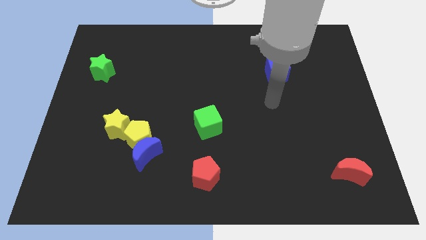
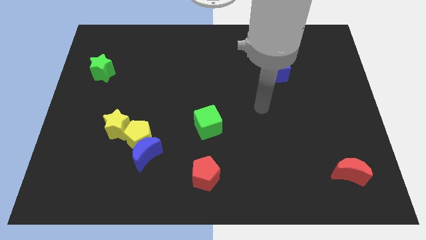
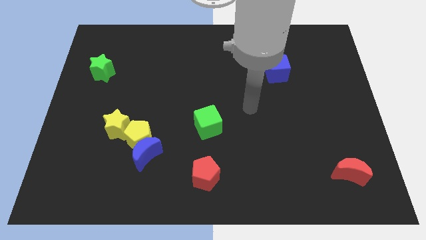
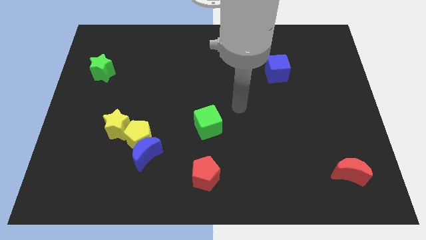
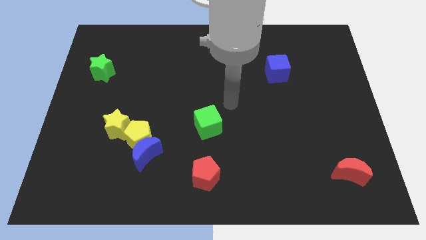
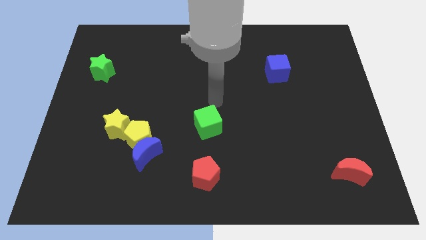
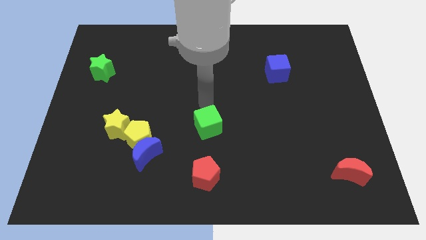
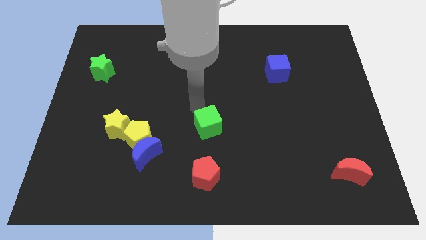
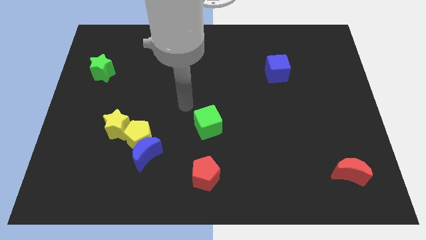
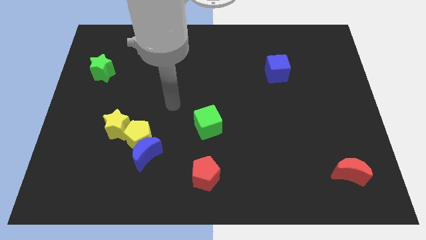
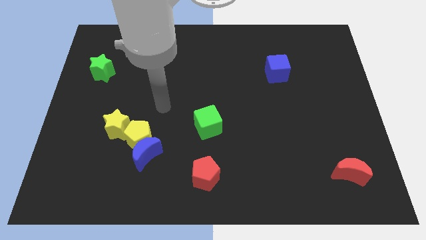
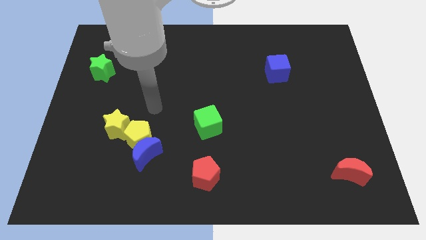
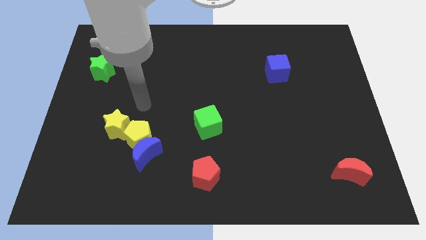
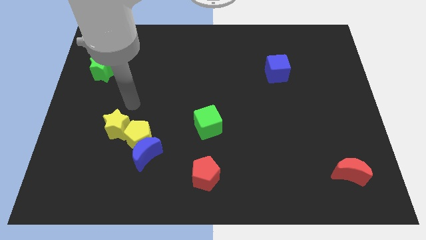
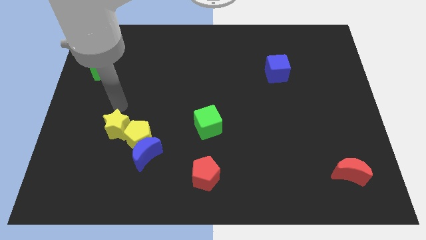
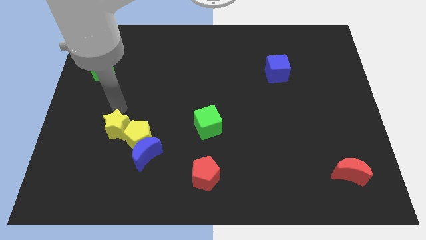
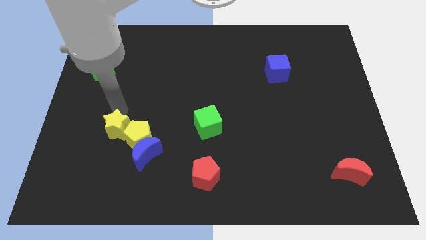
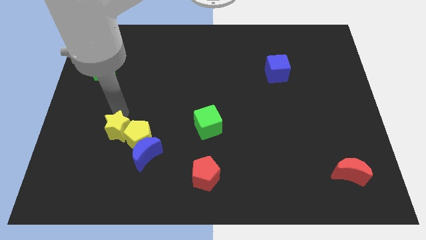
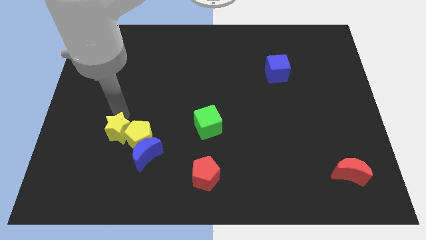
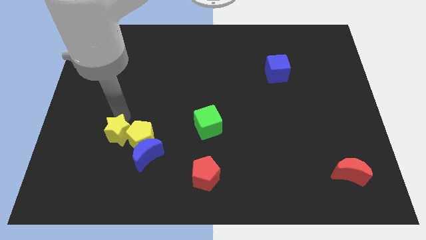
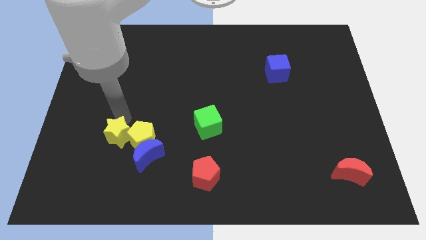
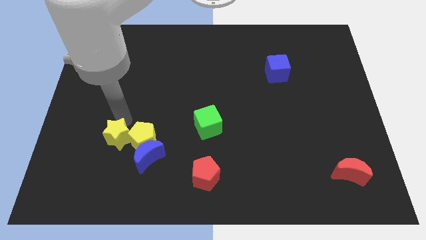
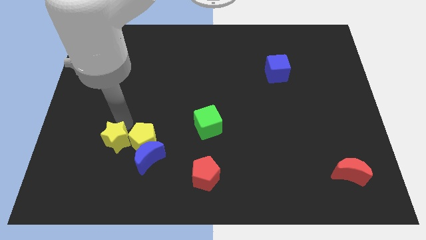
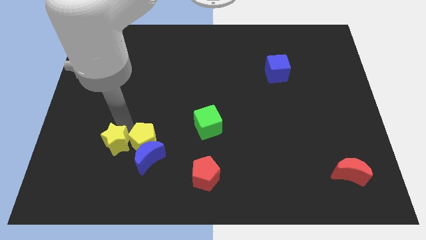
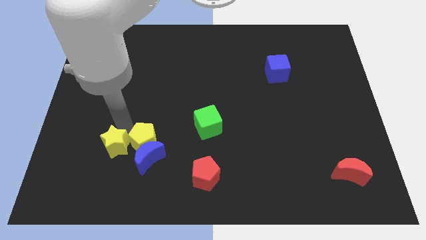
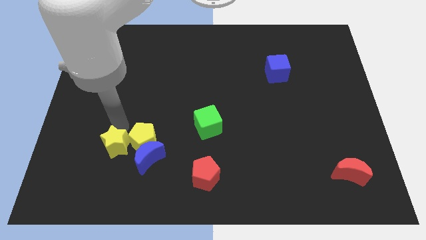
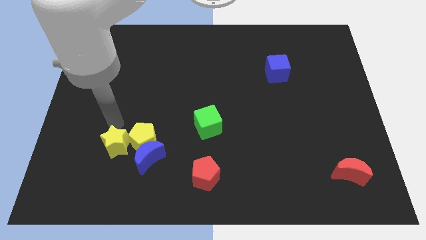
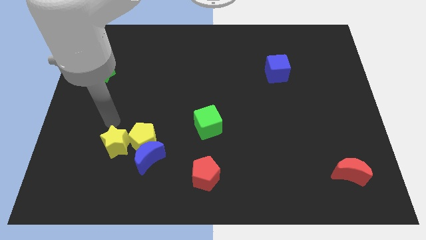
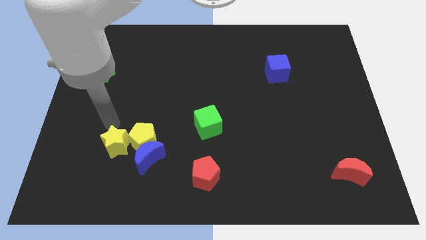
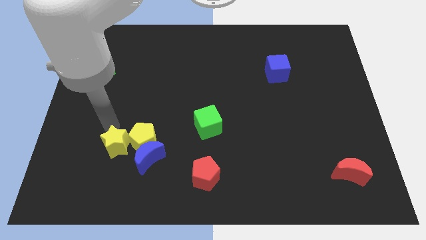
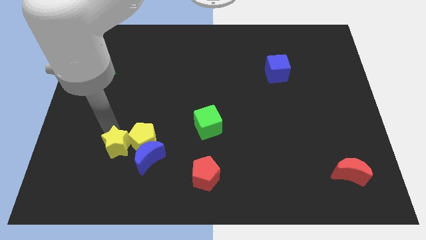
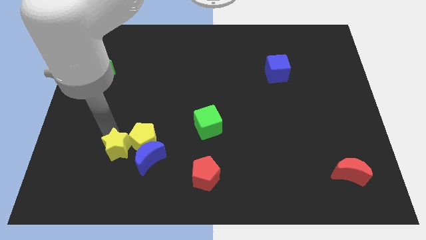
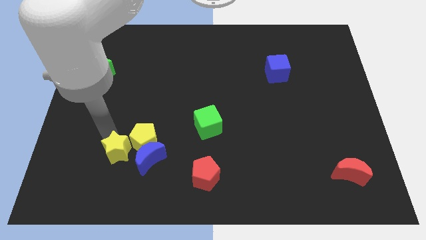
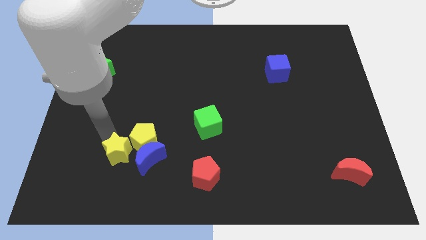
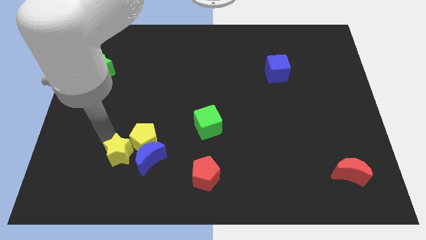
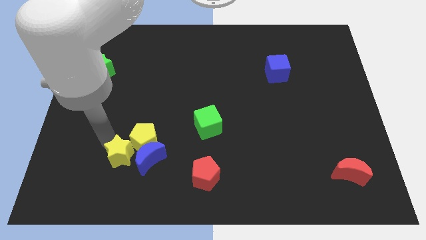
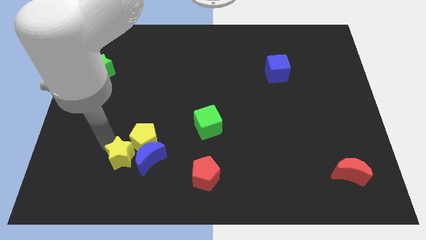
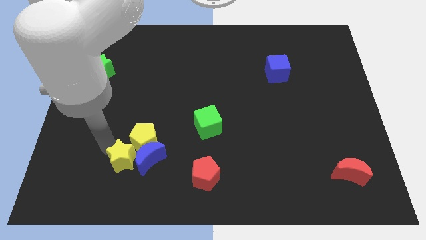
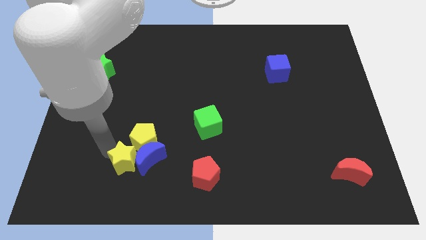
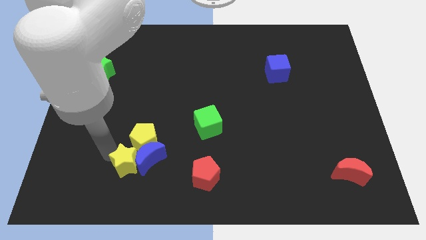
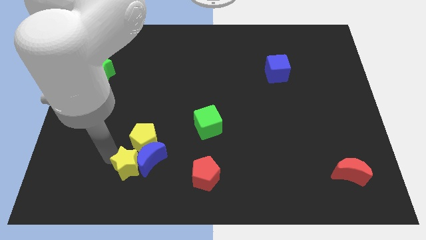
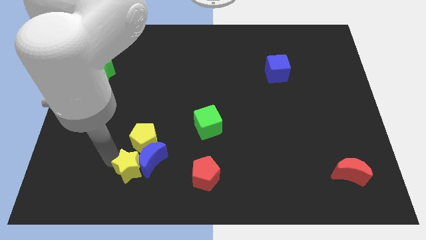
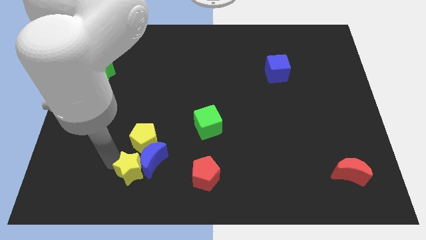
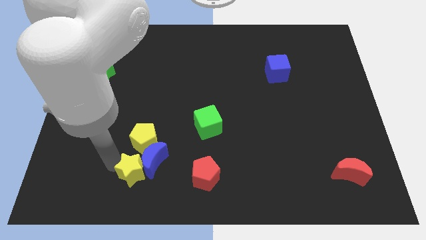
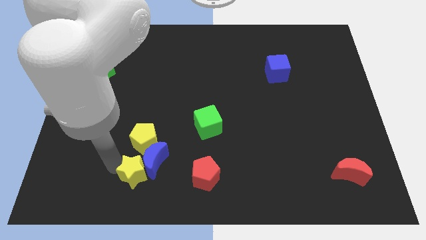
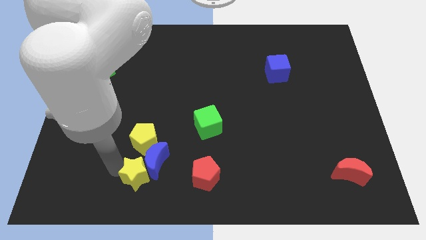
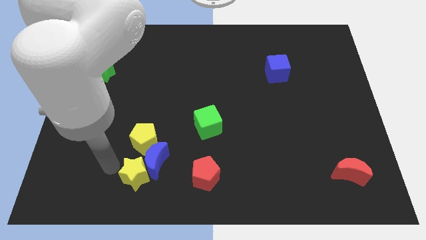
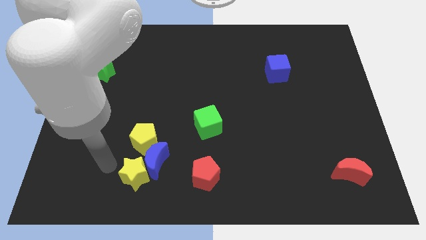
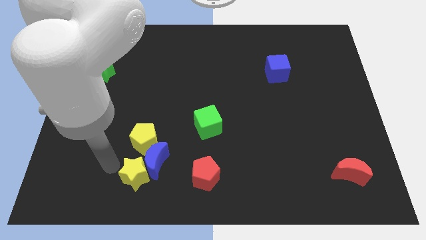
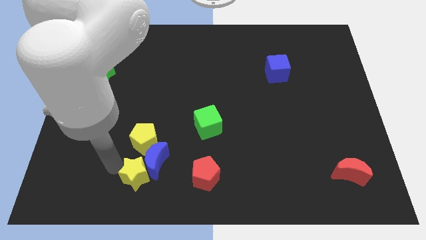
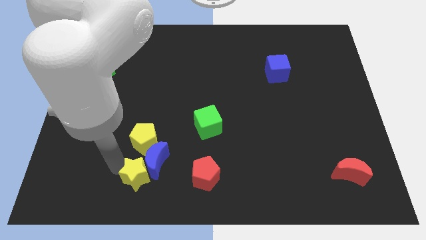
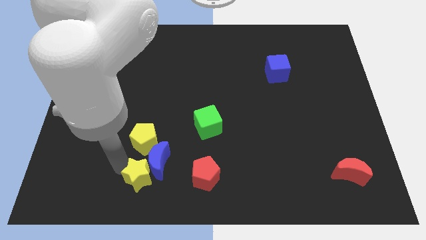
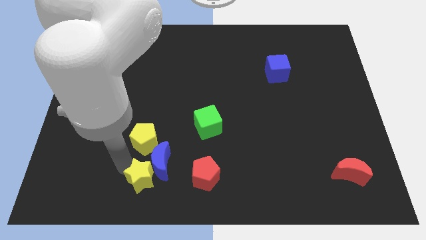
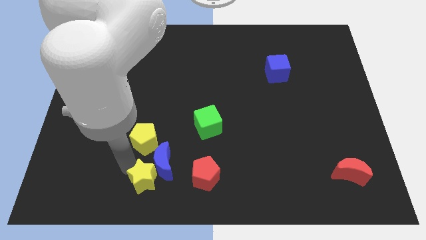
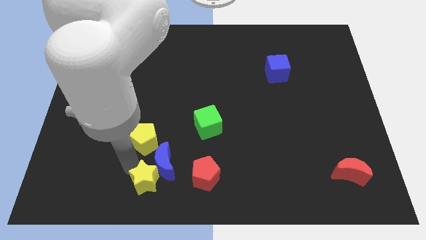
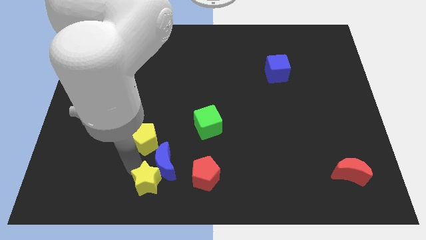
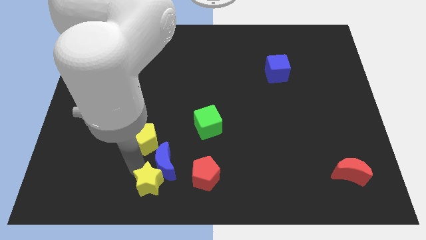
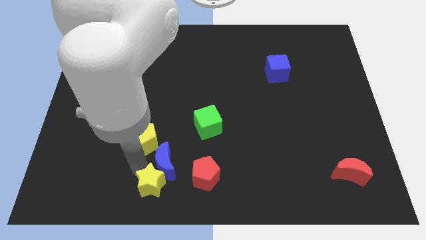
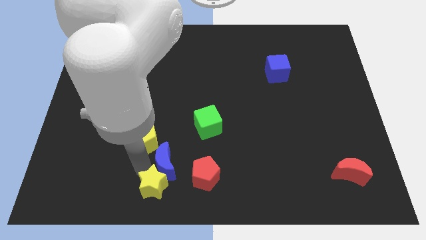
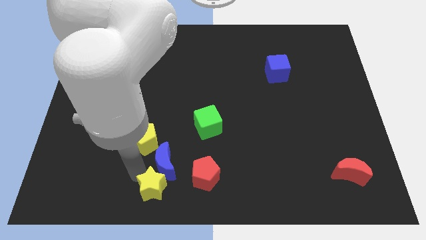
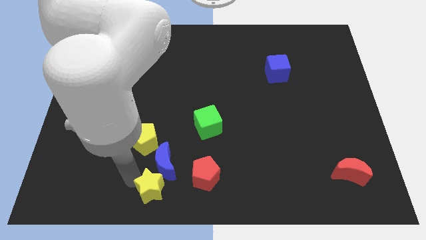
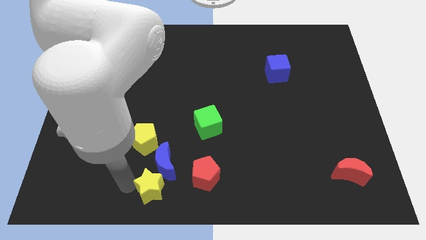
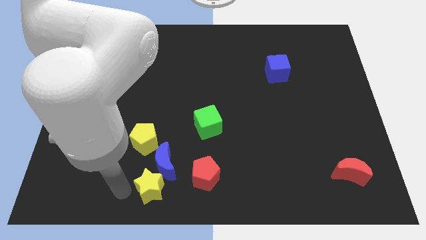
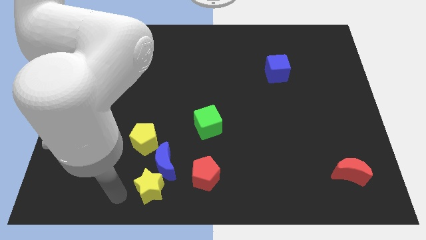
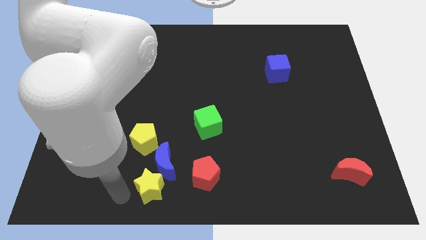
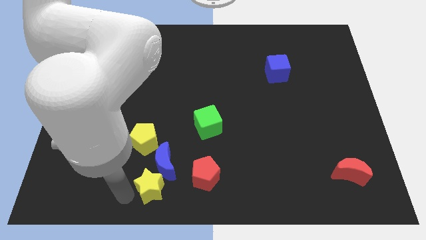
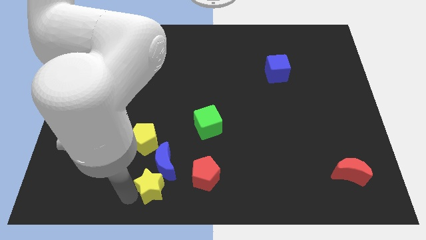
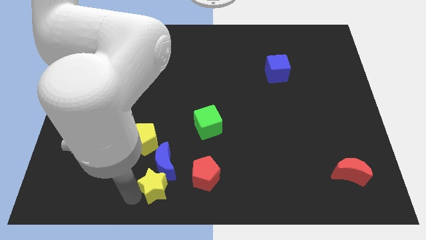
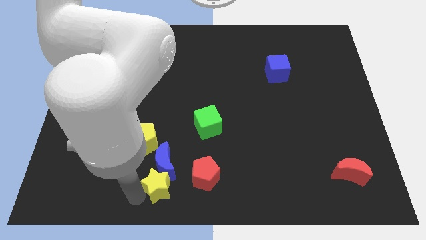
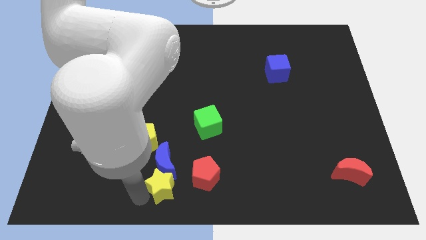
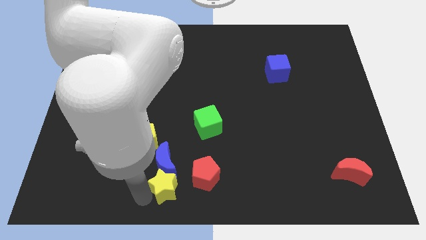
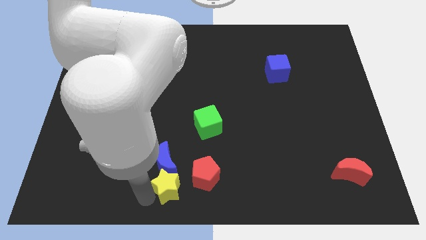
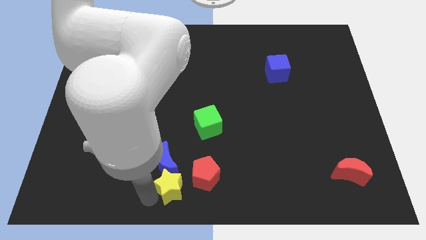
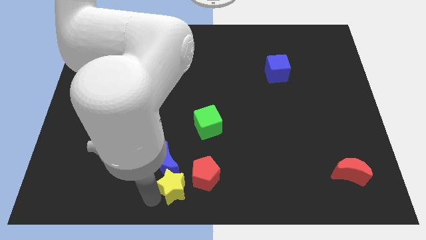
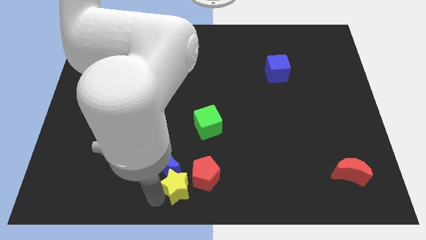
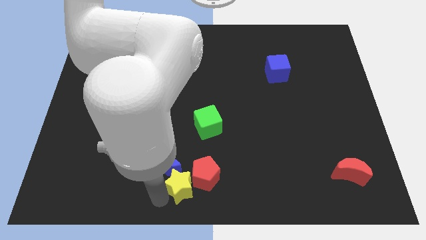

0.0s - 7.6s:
slide the yellow star next to the red pentagon

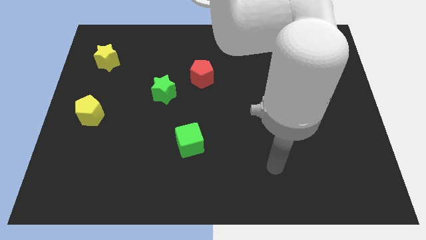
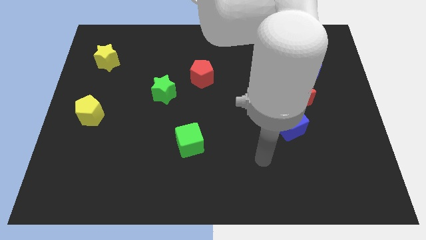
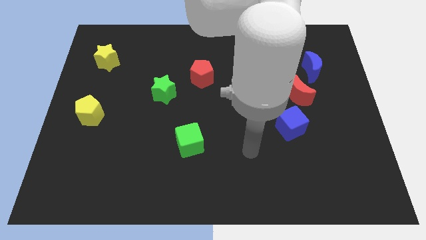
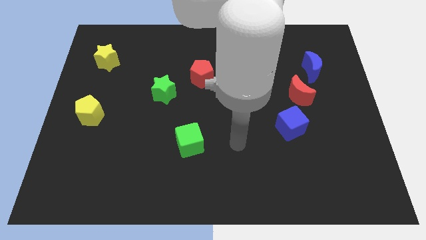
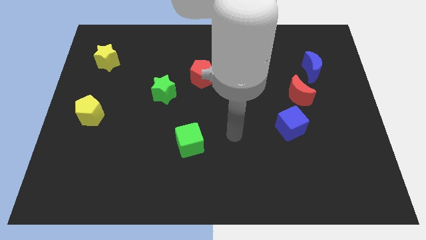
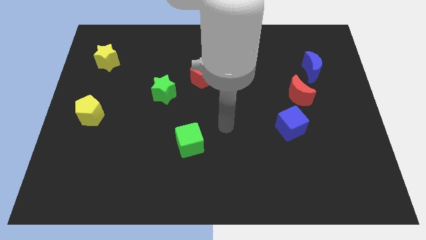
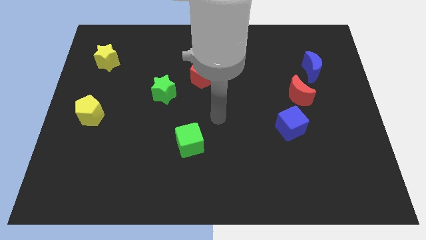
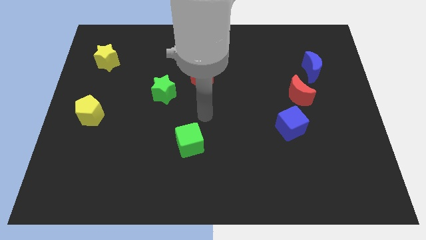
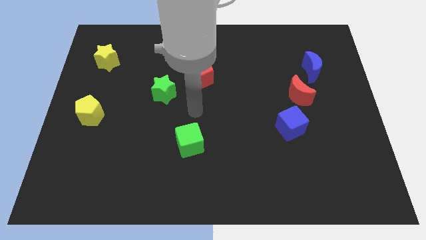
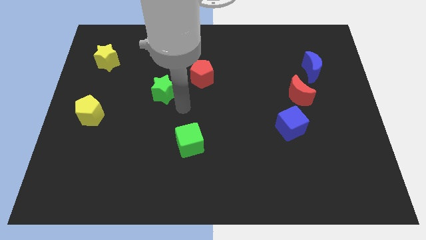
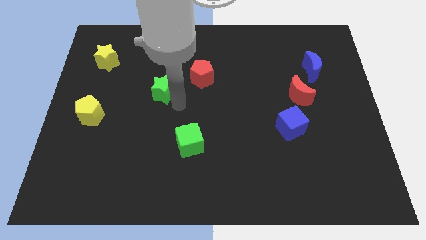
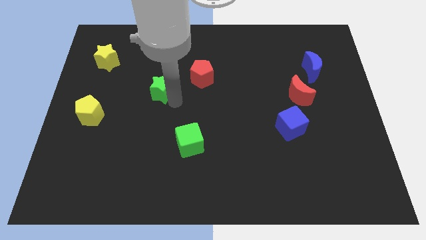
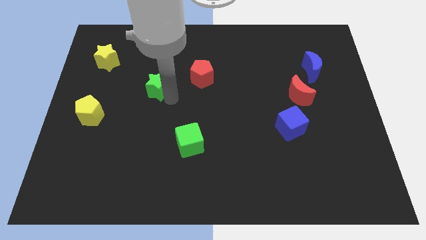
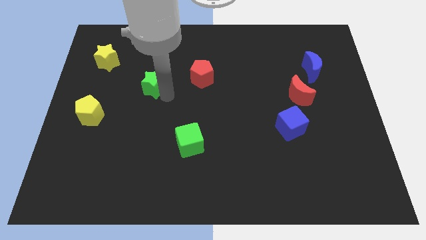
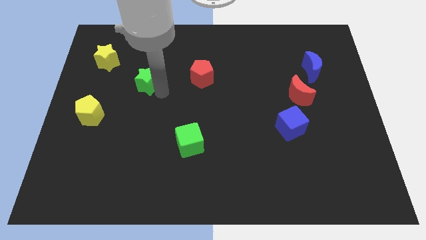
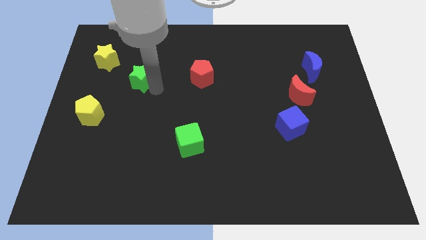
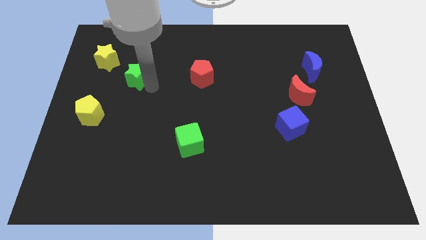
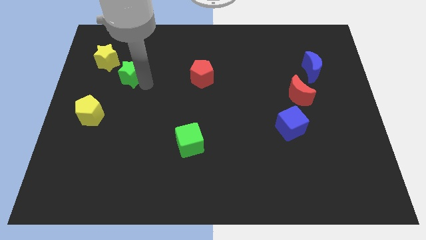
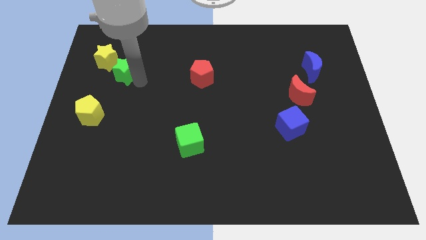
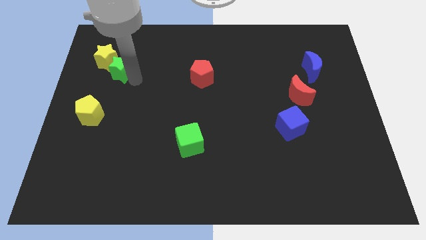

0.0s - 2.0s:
move the green star towards the yellow star
